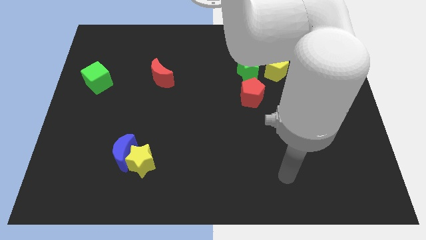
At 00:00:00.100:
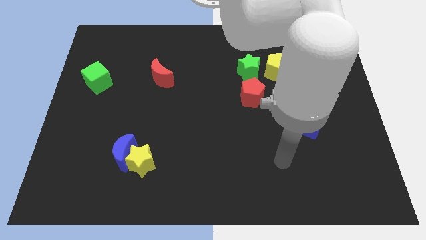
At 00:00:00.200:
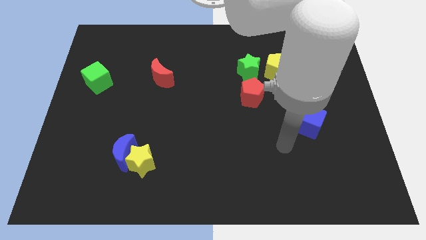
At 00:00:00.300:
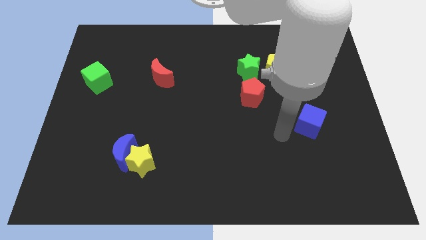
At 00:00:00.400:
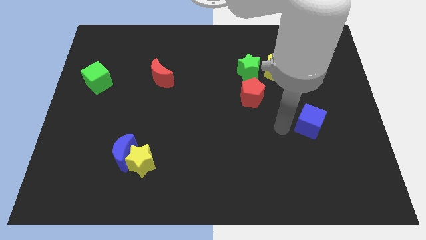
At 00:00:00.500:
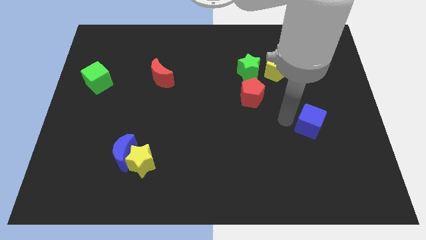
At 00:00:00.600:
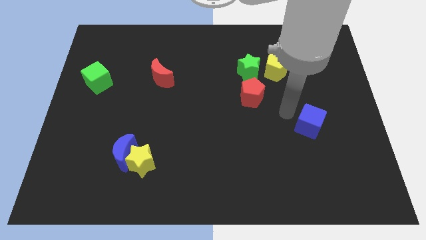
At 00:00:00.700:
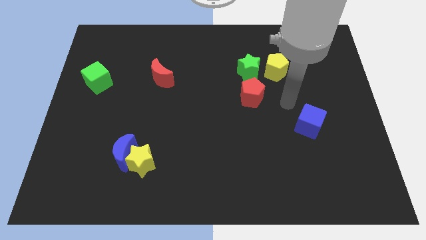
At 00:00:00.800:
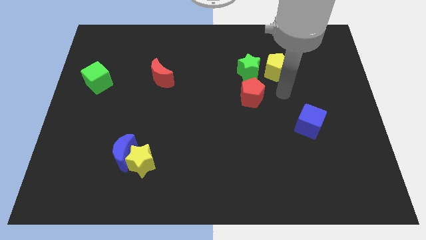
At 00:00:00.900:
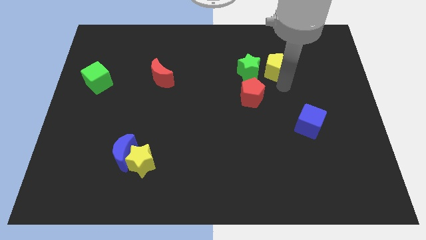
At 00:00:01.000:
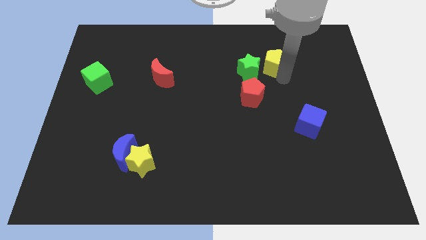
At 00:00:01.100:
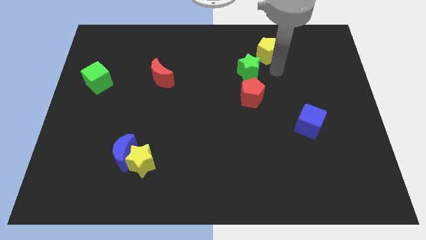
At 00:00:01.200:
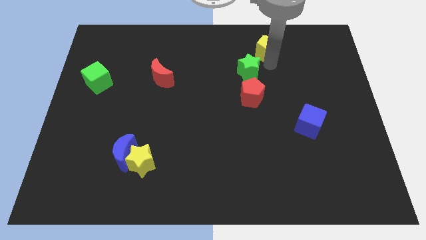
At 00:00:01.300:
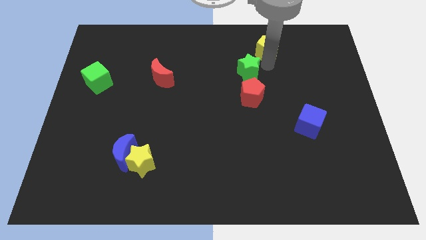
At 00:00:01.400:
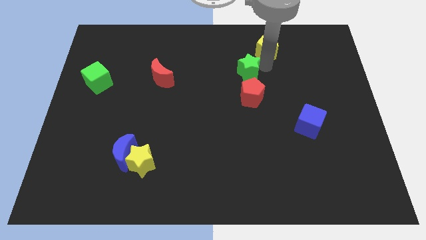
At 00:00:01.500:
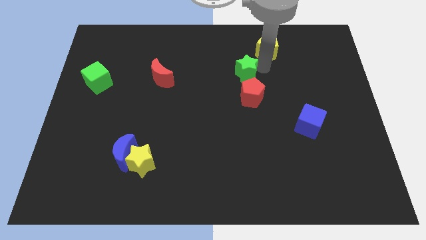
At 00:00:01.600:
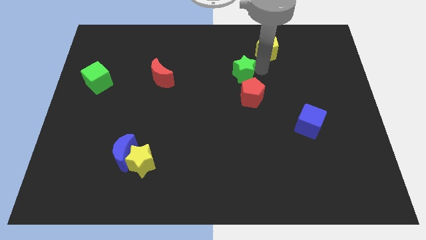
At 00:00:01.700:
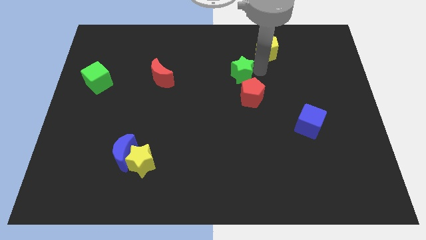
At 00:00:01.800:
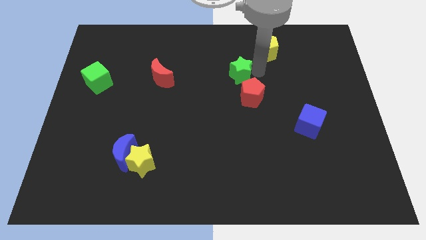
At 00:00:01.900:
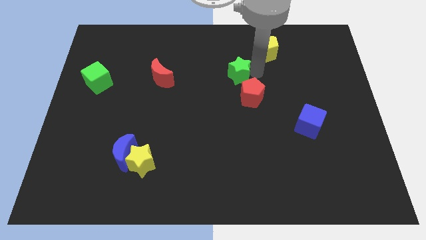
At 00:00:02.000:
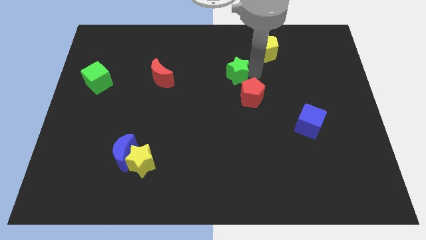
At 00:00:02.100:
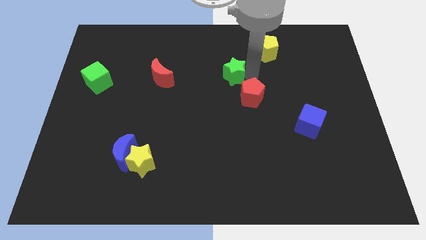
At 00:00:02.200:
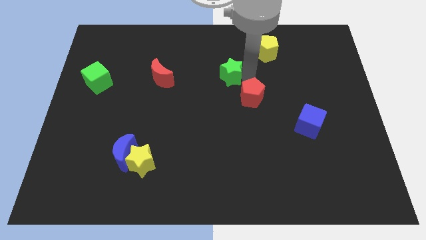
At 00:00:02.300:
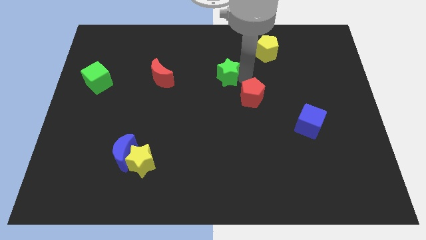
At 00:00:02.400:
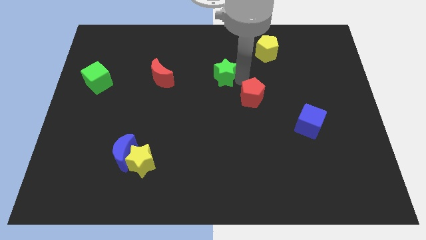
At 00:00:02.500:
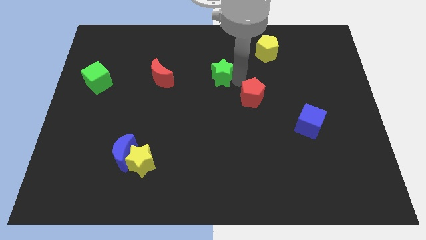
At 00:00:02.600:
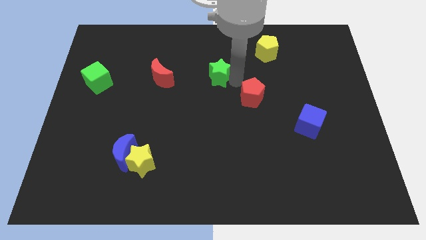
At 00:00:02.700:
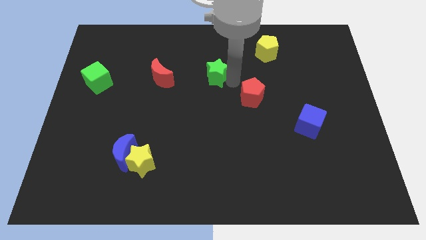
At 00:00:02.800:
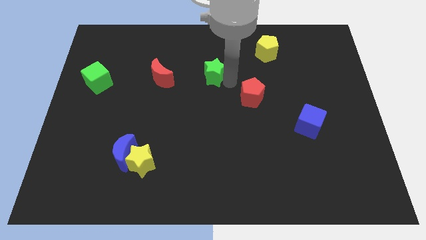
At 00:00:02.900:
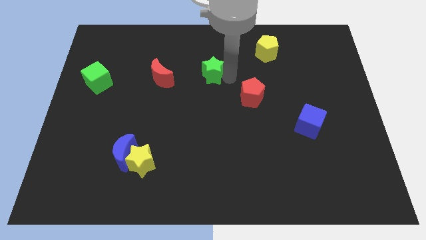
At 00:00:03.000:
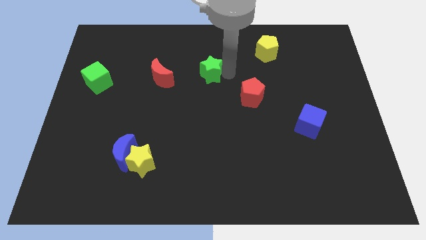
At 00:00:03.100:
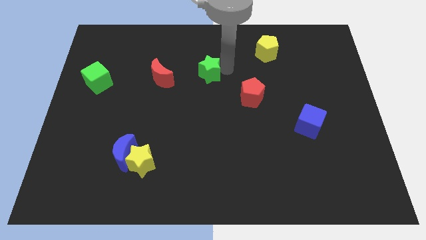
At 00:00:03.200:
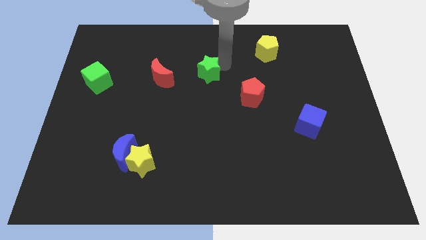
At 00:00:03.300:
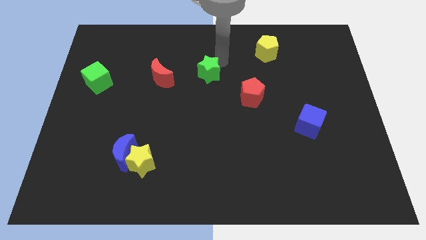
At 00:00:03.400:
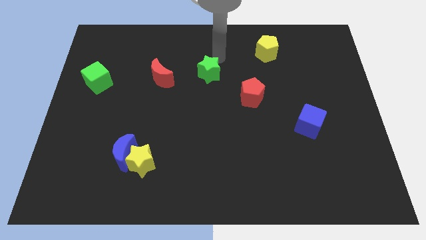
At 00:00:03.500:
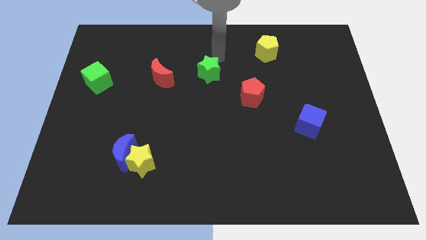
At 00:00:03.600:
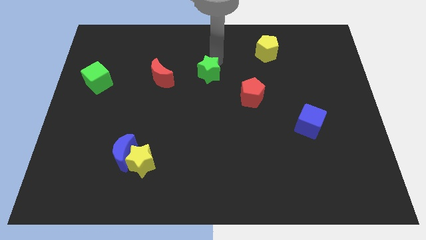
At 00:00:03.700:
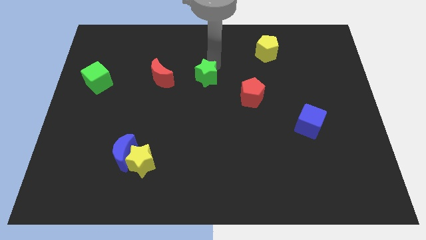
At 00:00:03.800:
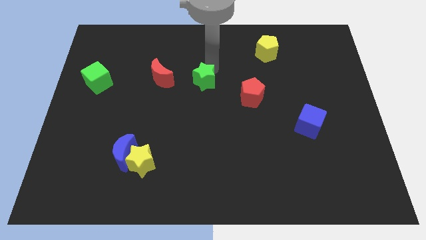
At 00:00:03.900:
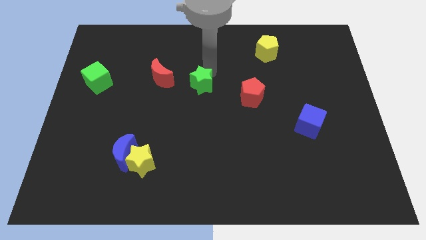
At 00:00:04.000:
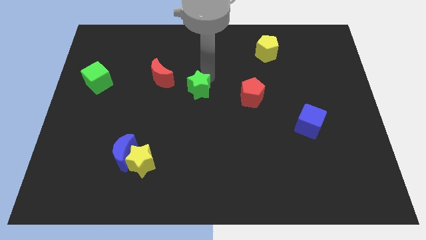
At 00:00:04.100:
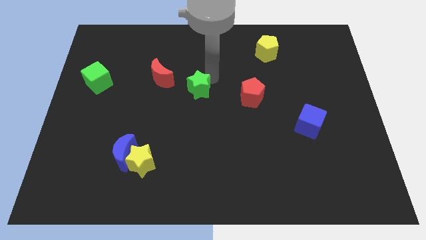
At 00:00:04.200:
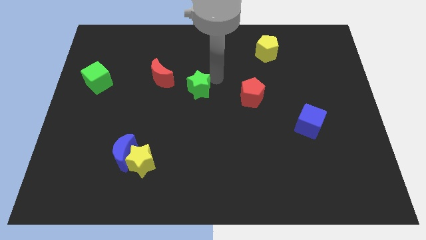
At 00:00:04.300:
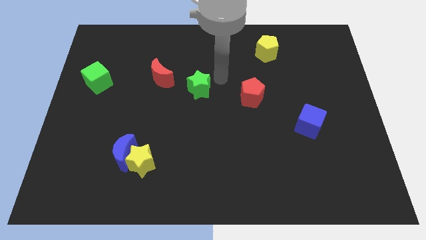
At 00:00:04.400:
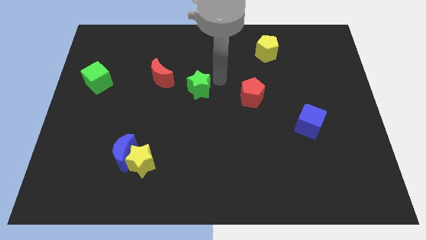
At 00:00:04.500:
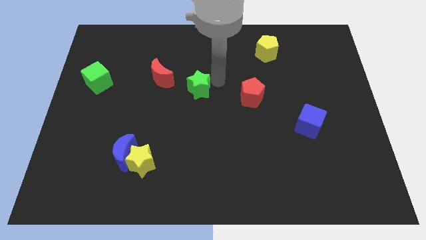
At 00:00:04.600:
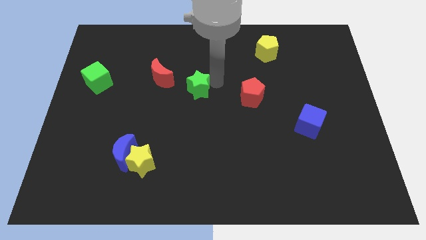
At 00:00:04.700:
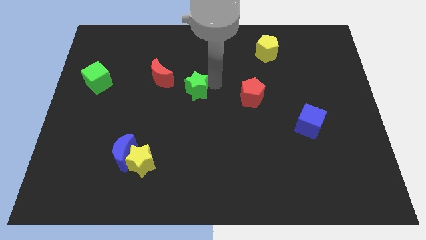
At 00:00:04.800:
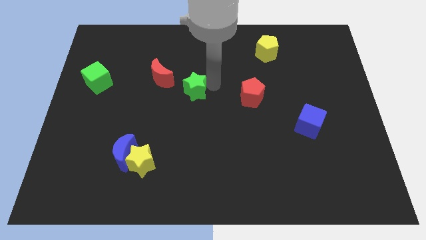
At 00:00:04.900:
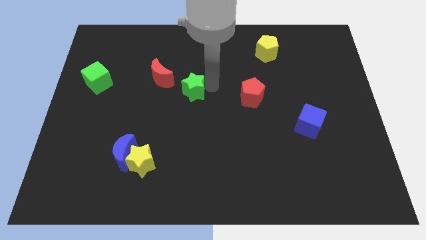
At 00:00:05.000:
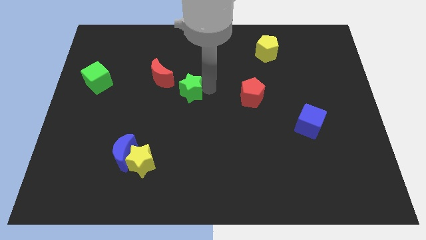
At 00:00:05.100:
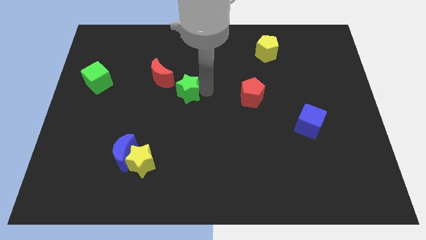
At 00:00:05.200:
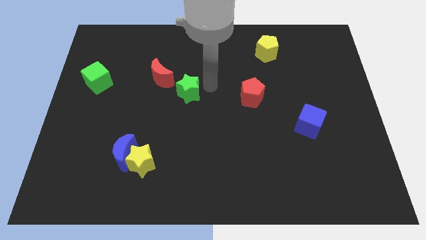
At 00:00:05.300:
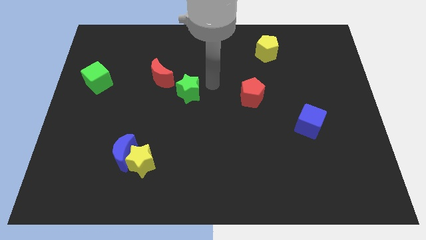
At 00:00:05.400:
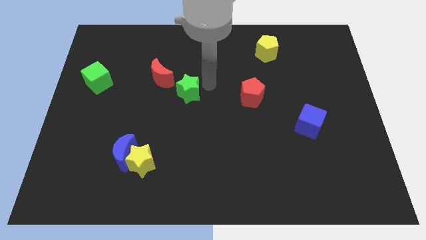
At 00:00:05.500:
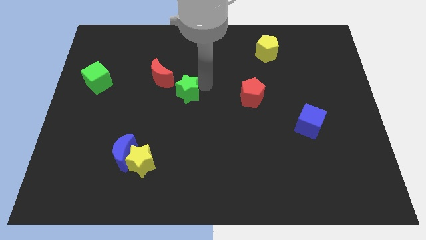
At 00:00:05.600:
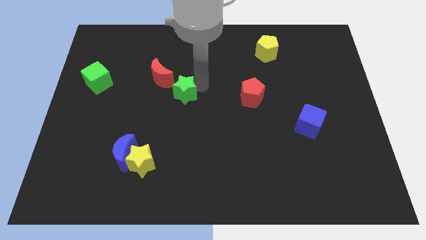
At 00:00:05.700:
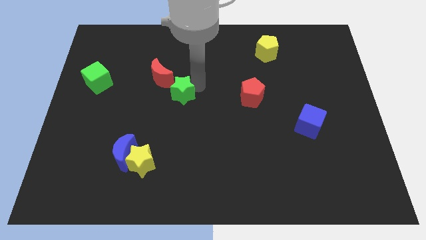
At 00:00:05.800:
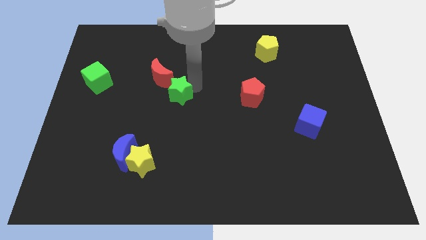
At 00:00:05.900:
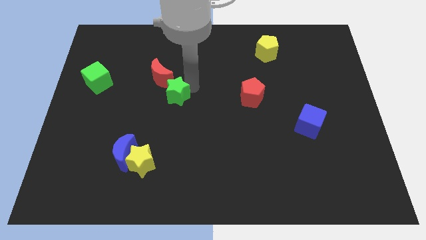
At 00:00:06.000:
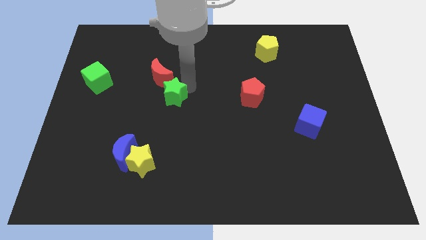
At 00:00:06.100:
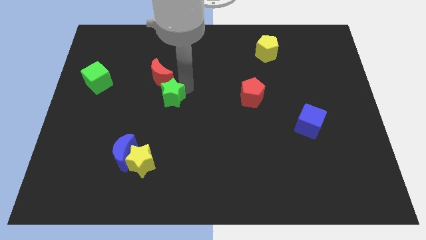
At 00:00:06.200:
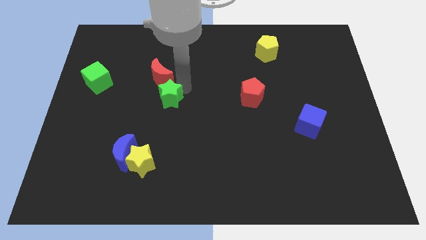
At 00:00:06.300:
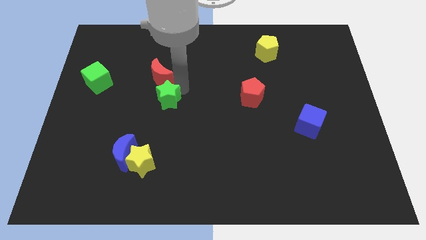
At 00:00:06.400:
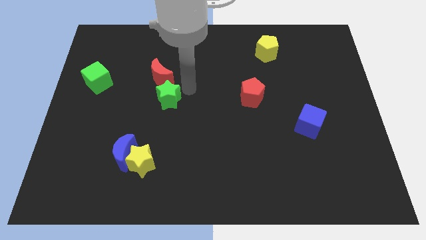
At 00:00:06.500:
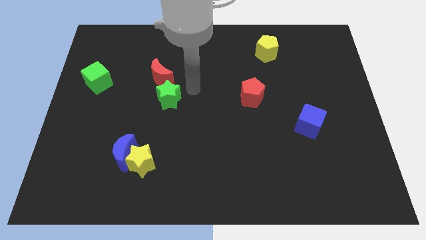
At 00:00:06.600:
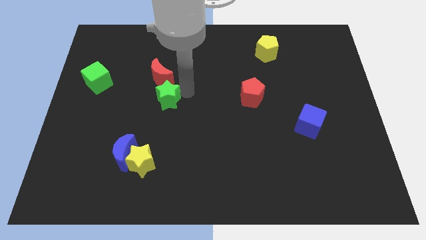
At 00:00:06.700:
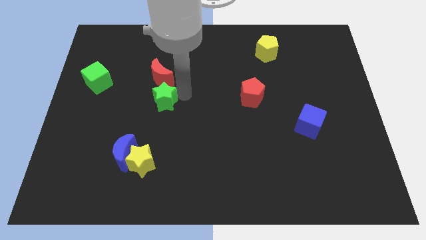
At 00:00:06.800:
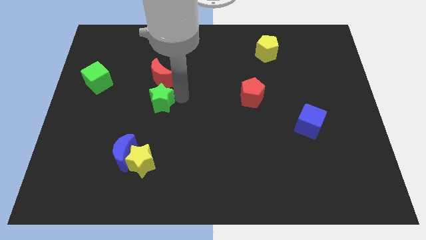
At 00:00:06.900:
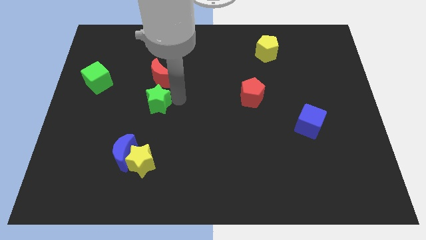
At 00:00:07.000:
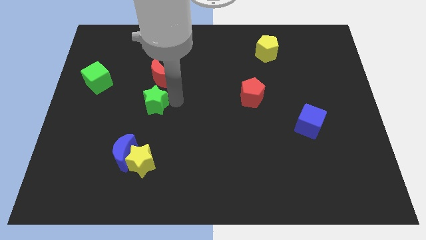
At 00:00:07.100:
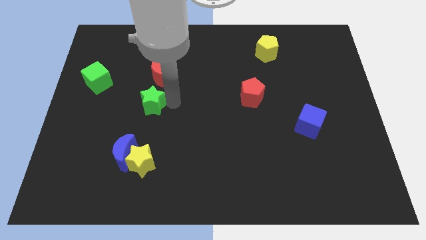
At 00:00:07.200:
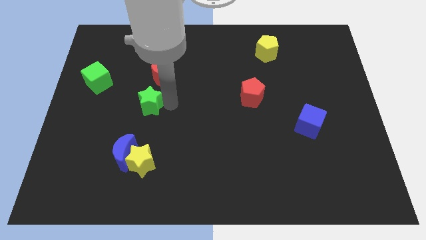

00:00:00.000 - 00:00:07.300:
slide the green star above the blue moon
